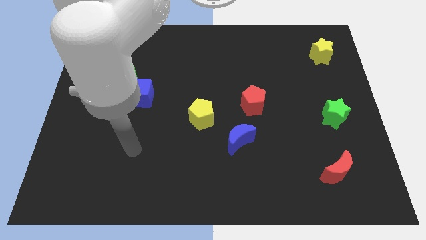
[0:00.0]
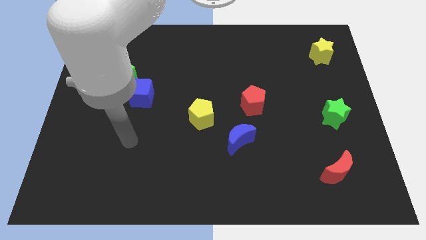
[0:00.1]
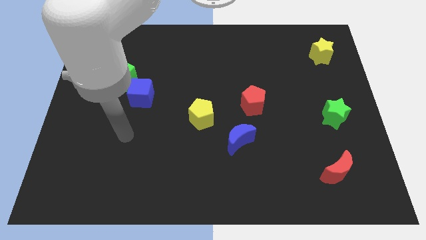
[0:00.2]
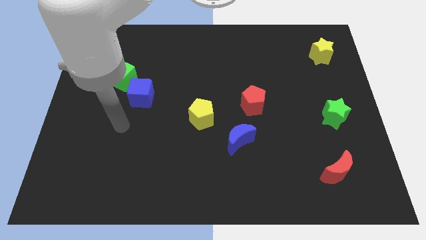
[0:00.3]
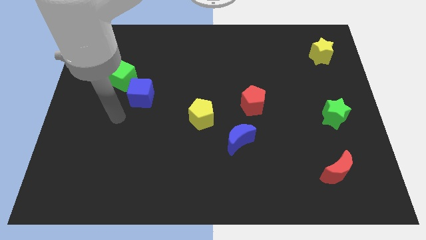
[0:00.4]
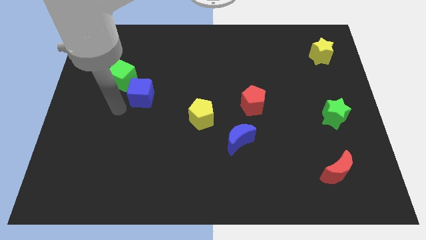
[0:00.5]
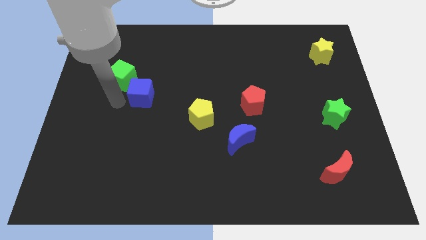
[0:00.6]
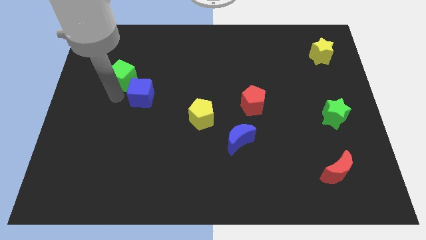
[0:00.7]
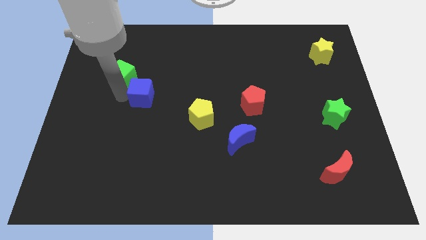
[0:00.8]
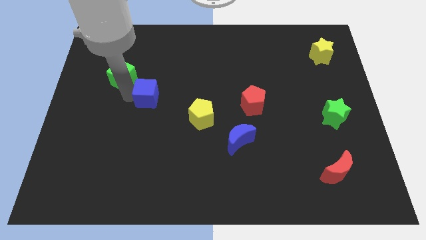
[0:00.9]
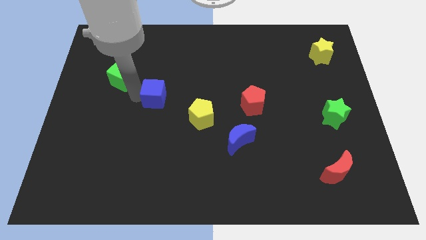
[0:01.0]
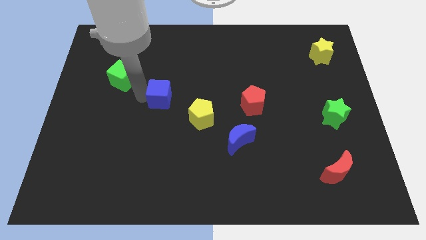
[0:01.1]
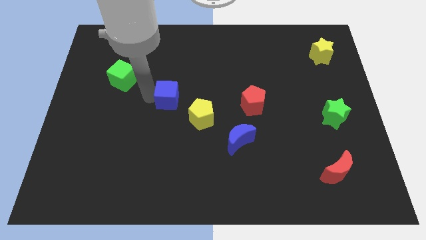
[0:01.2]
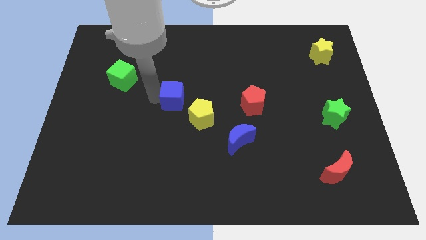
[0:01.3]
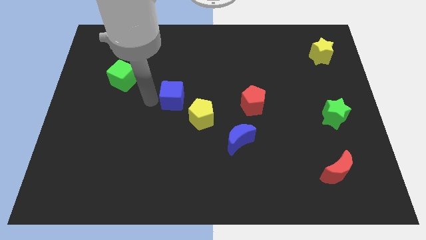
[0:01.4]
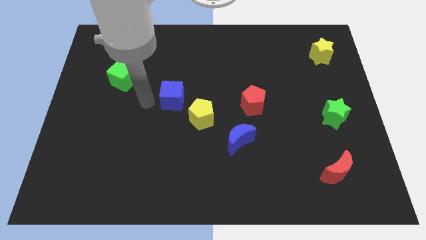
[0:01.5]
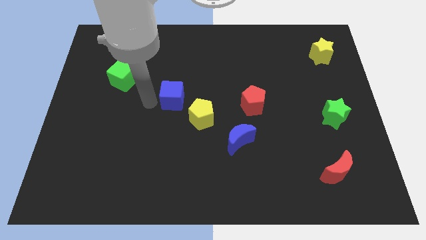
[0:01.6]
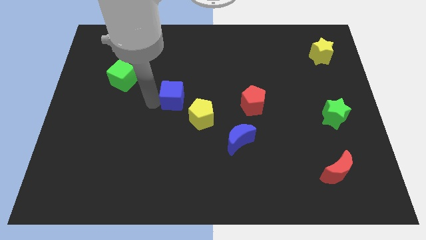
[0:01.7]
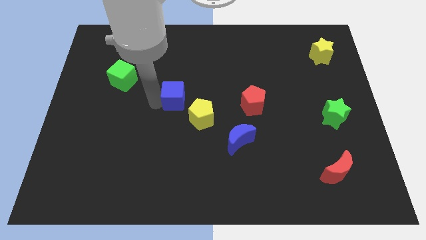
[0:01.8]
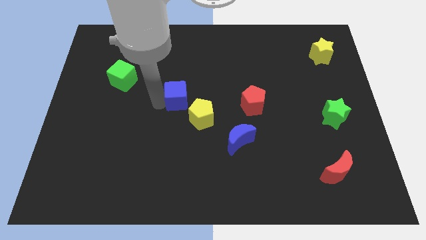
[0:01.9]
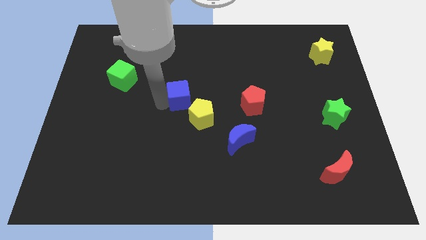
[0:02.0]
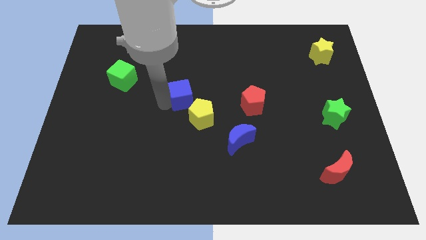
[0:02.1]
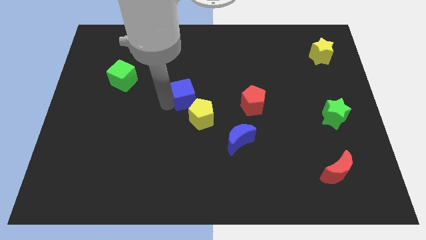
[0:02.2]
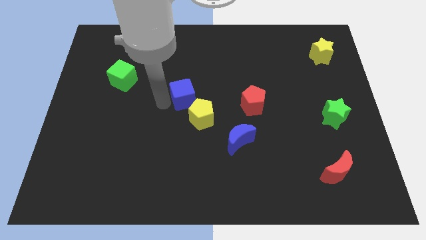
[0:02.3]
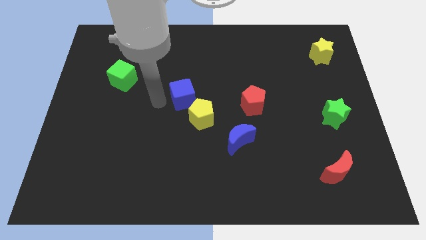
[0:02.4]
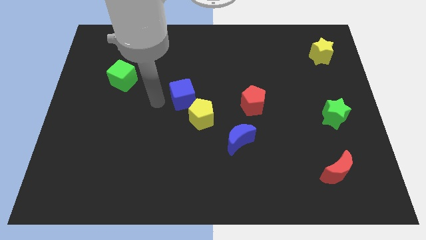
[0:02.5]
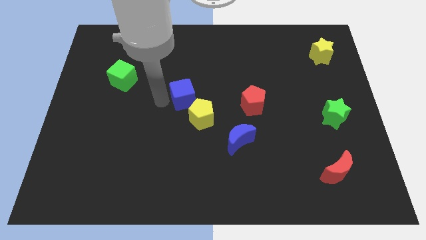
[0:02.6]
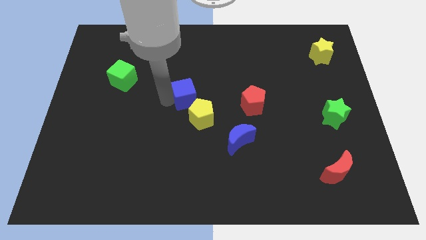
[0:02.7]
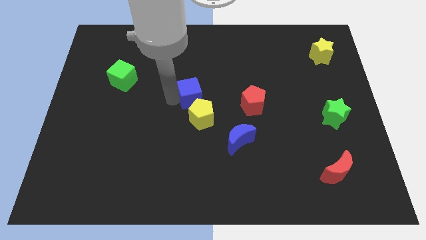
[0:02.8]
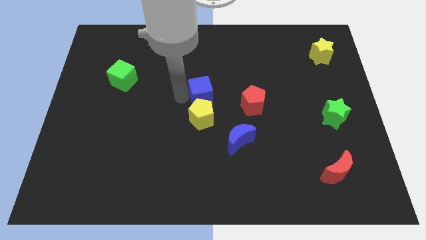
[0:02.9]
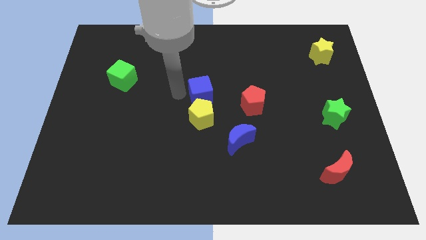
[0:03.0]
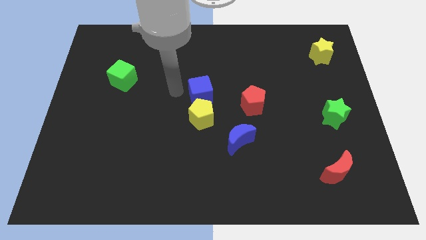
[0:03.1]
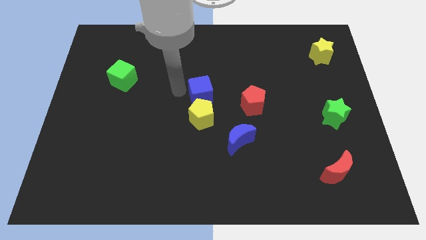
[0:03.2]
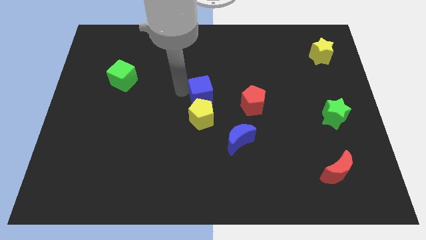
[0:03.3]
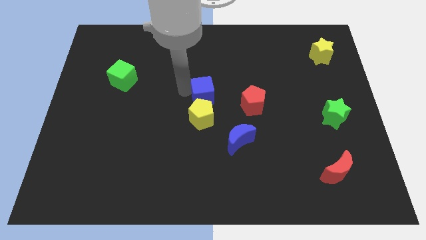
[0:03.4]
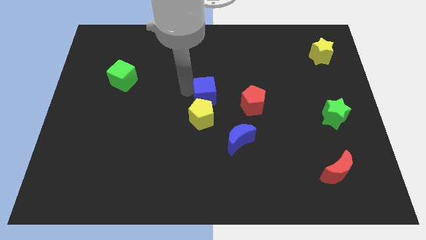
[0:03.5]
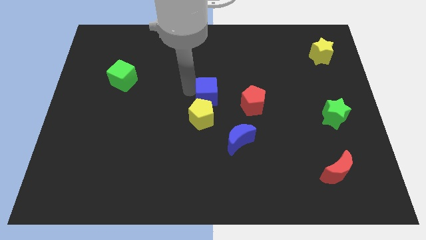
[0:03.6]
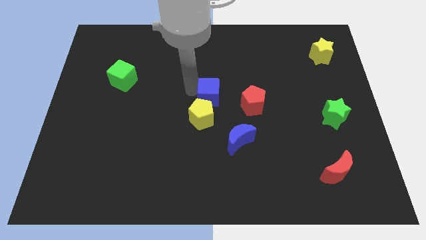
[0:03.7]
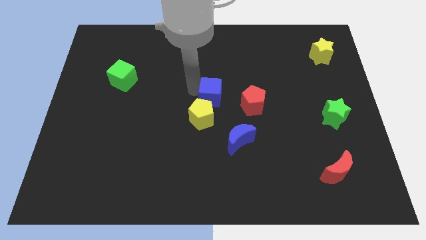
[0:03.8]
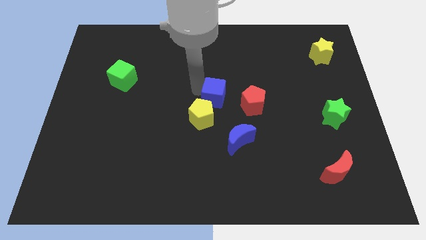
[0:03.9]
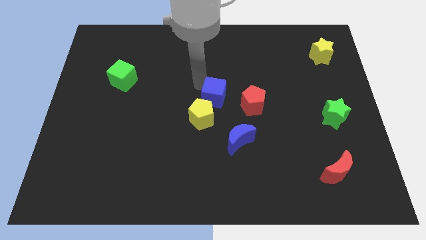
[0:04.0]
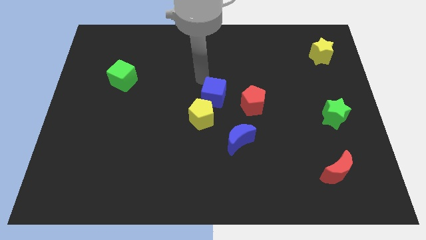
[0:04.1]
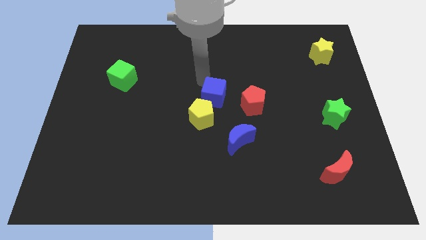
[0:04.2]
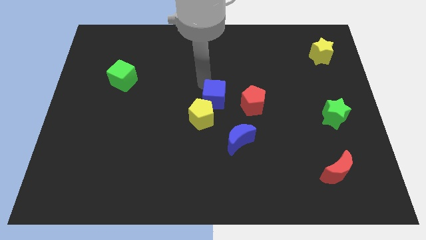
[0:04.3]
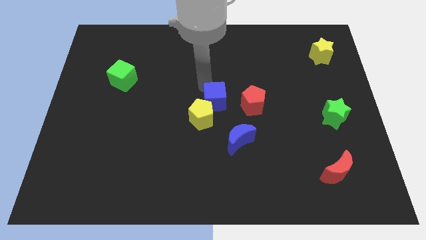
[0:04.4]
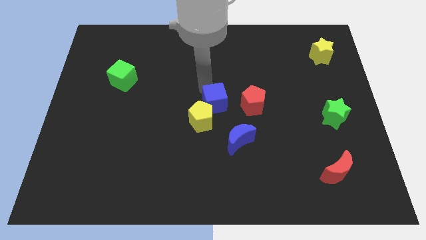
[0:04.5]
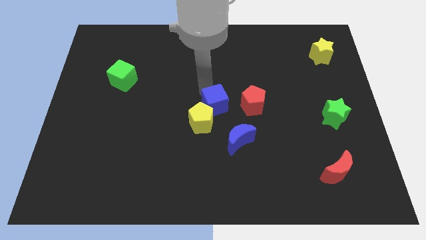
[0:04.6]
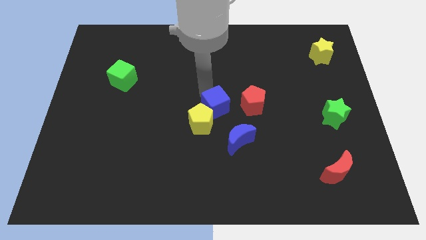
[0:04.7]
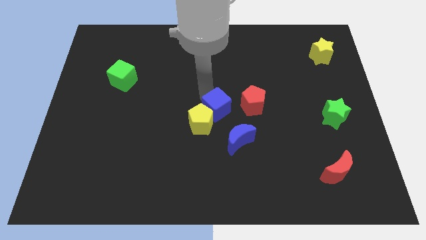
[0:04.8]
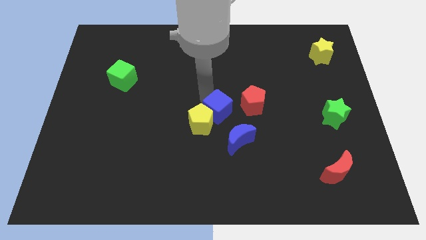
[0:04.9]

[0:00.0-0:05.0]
push the blue cube diagonally down and to the left of the red pentagon

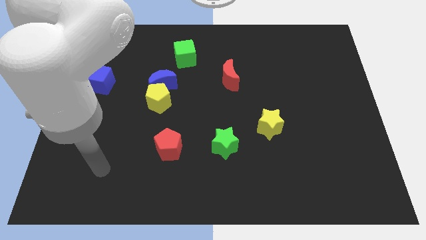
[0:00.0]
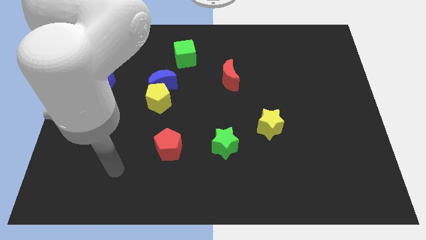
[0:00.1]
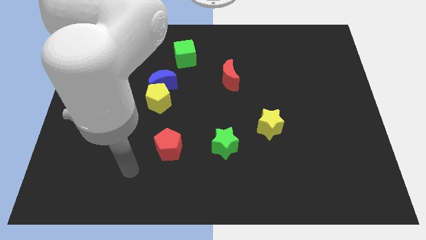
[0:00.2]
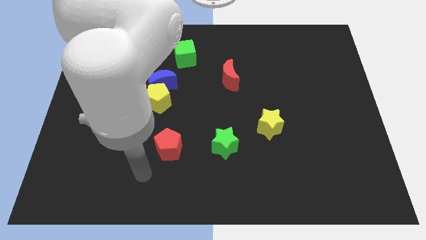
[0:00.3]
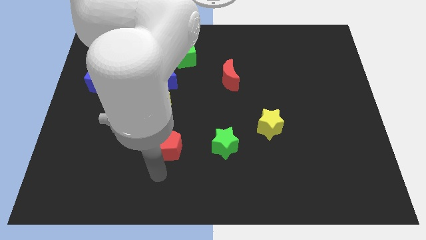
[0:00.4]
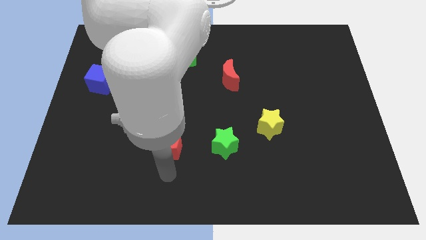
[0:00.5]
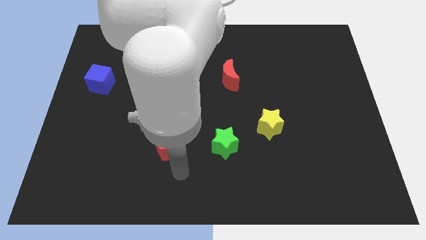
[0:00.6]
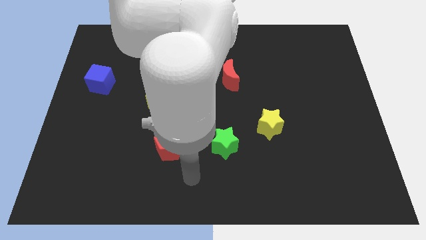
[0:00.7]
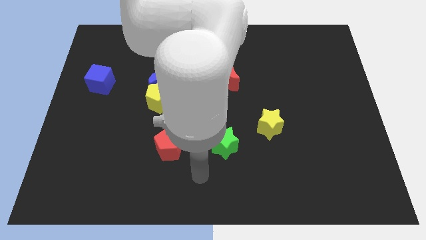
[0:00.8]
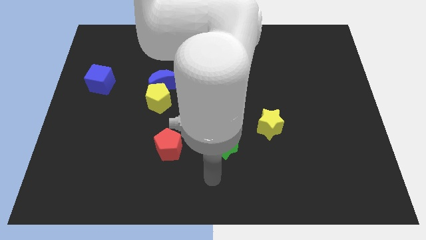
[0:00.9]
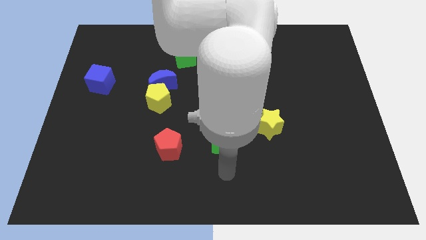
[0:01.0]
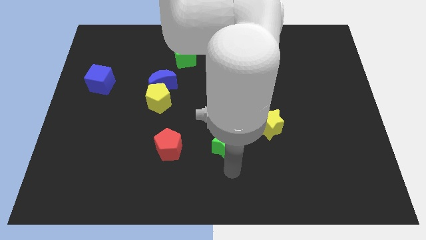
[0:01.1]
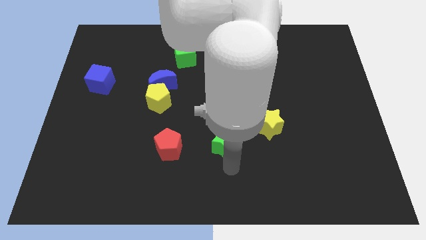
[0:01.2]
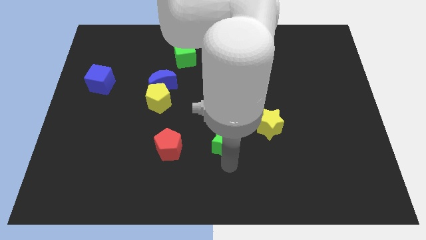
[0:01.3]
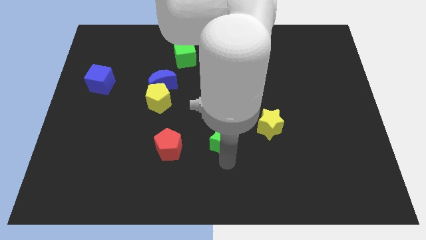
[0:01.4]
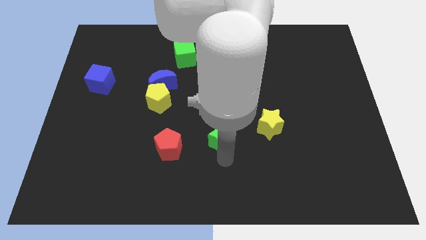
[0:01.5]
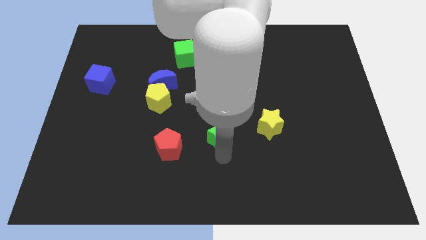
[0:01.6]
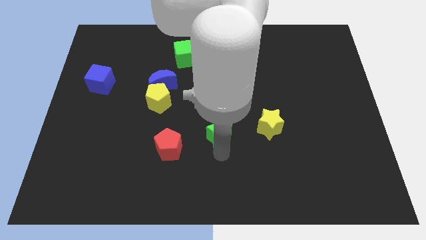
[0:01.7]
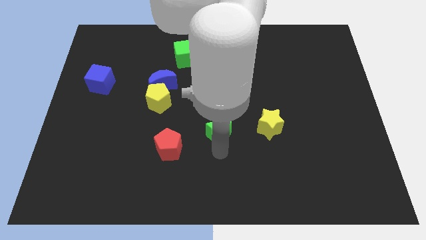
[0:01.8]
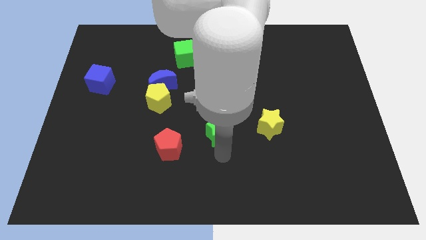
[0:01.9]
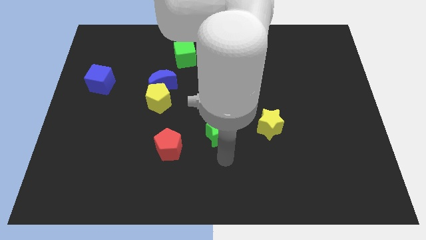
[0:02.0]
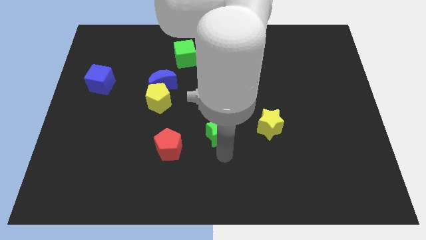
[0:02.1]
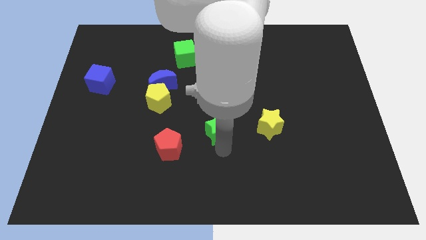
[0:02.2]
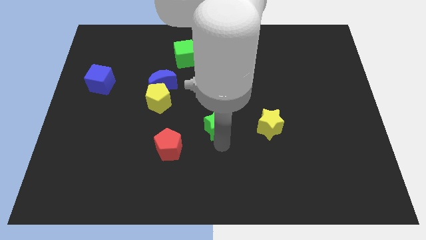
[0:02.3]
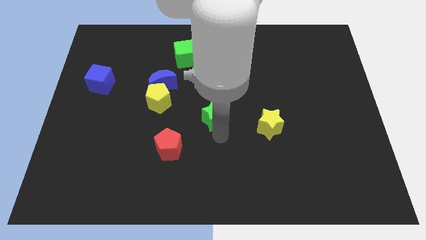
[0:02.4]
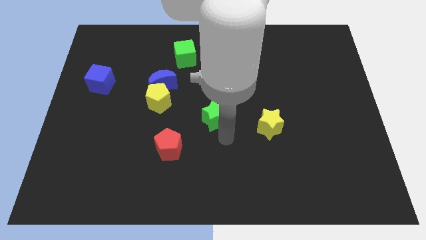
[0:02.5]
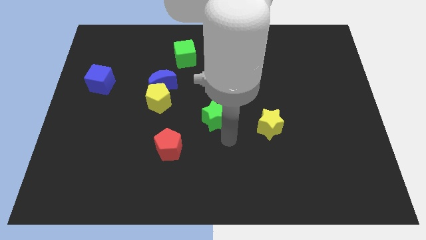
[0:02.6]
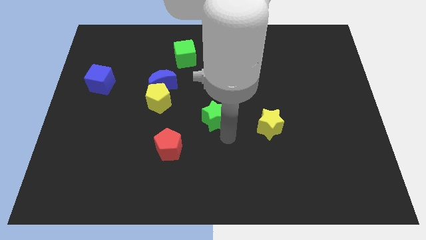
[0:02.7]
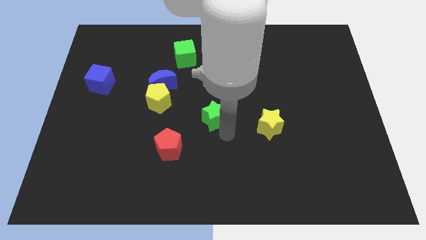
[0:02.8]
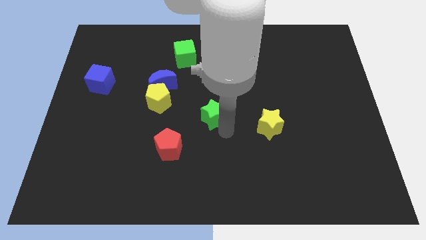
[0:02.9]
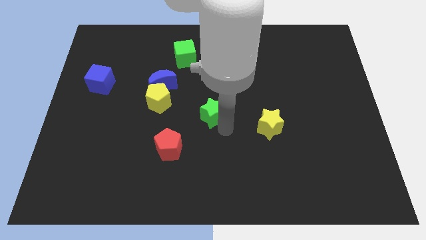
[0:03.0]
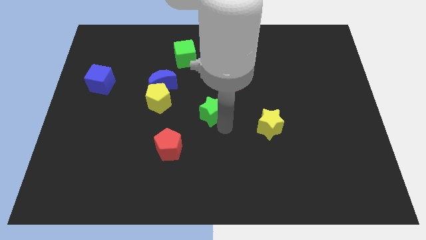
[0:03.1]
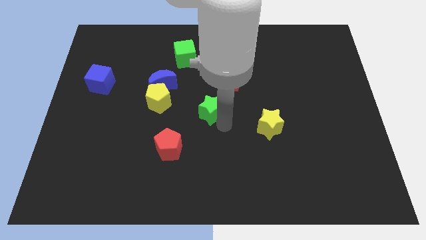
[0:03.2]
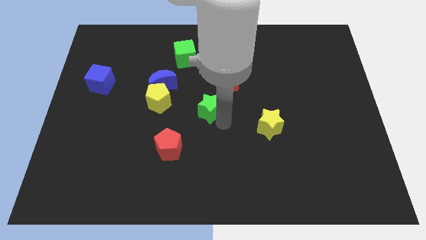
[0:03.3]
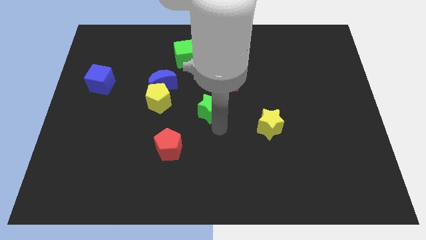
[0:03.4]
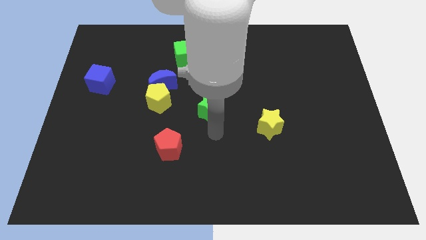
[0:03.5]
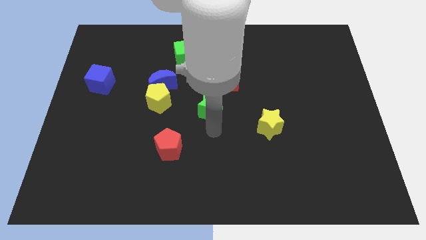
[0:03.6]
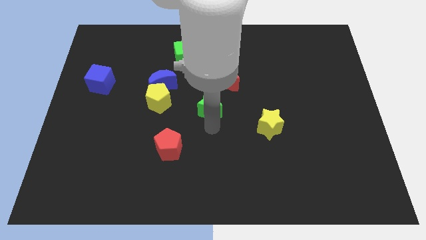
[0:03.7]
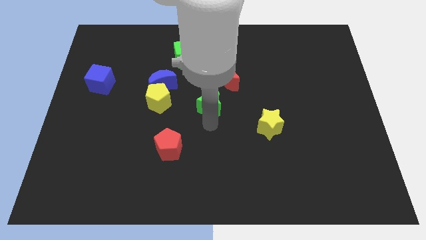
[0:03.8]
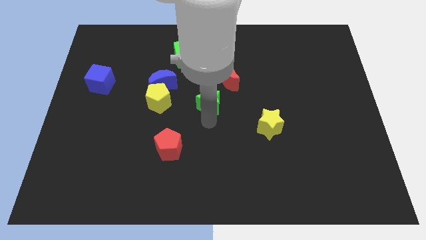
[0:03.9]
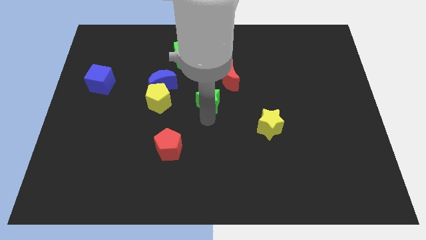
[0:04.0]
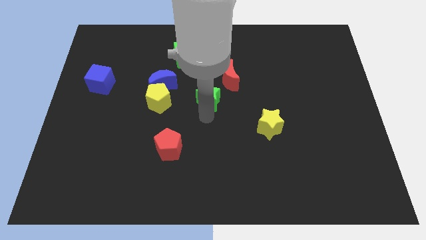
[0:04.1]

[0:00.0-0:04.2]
put the green star to the right side of the blue moon
